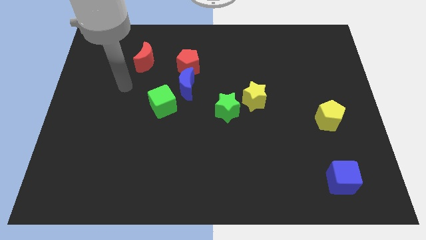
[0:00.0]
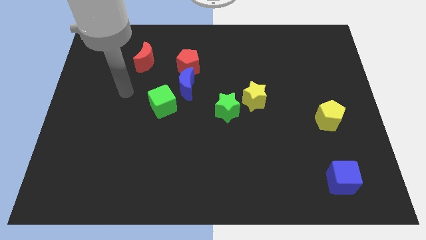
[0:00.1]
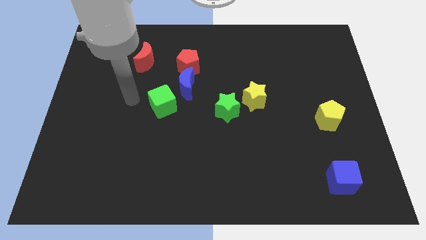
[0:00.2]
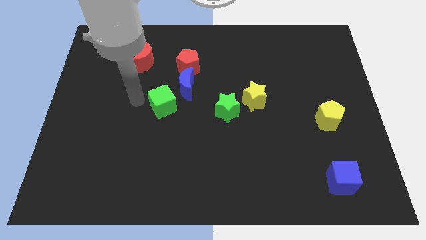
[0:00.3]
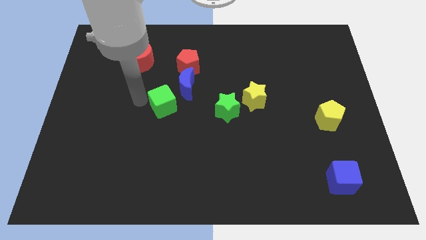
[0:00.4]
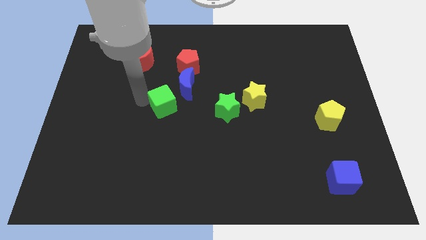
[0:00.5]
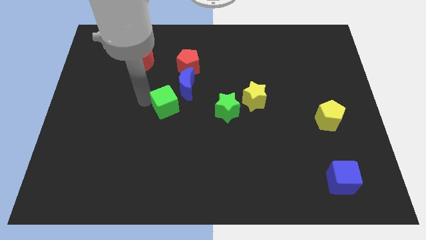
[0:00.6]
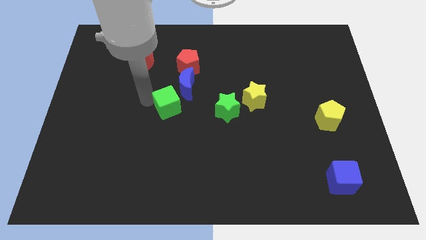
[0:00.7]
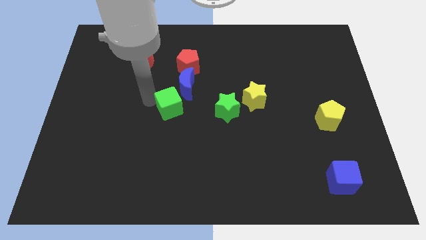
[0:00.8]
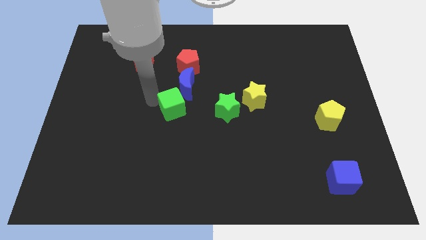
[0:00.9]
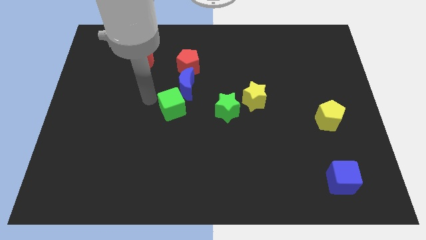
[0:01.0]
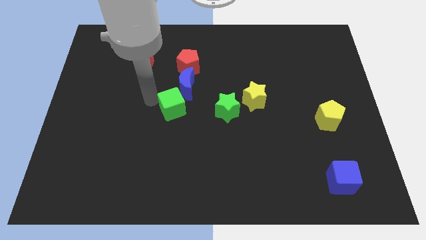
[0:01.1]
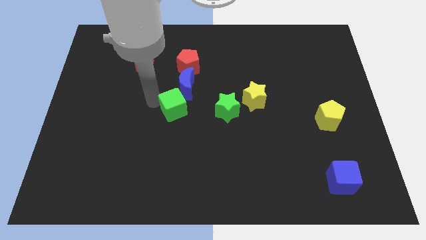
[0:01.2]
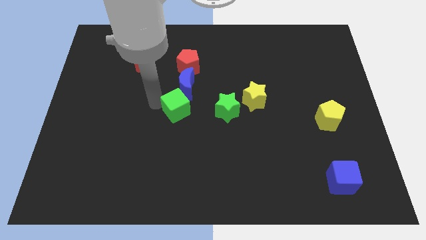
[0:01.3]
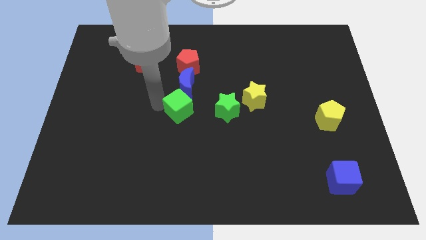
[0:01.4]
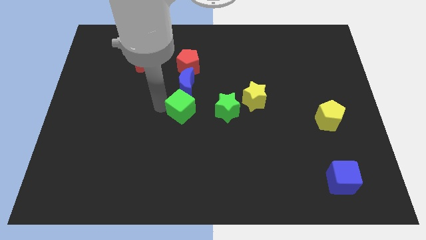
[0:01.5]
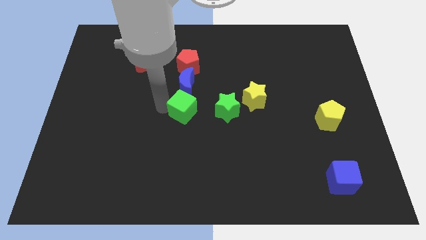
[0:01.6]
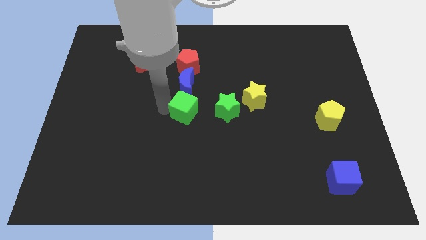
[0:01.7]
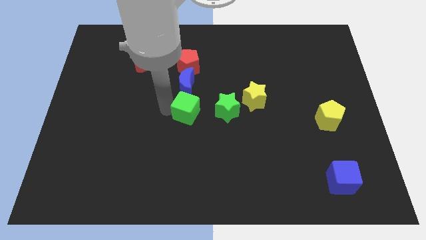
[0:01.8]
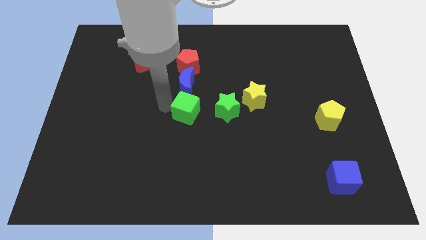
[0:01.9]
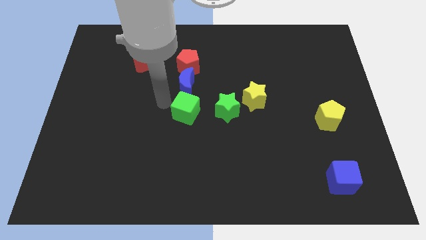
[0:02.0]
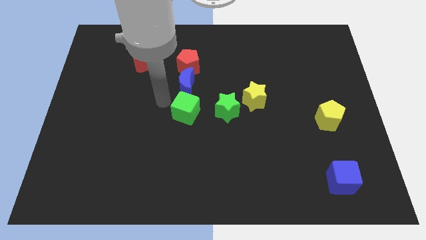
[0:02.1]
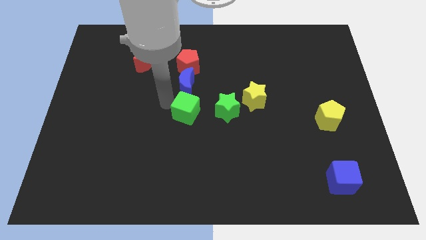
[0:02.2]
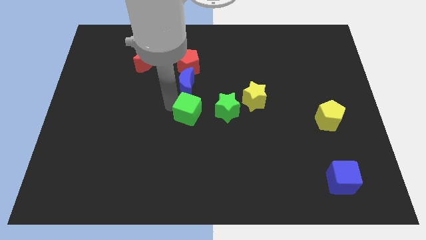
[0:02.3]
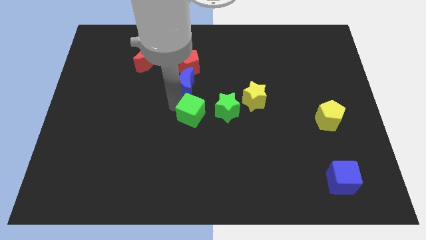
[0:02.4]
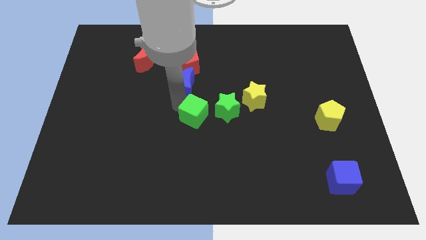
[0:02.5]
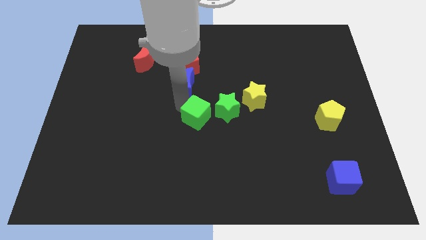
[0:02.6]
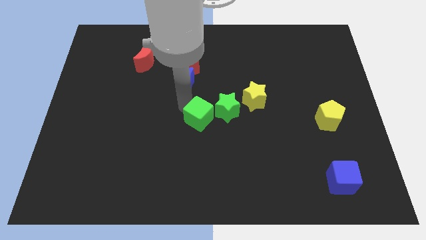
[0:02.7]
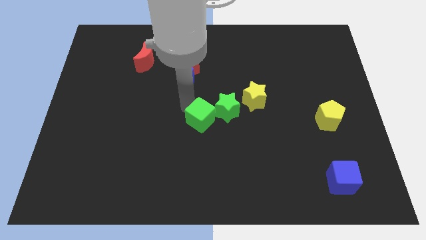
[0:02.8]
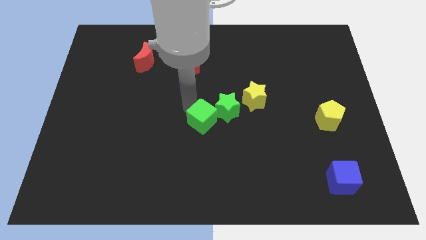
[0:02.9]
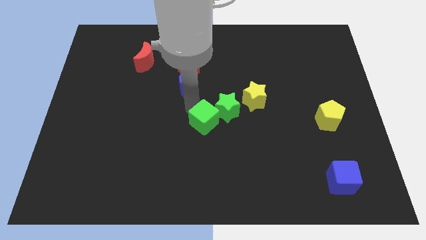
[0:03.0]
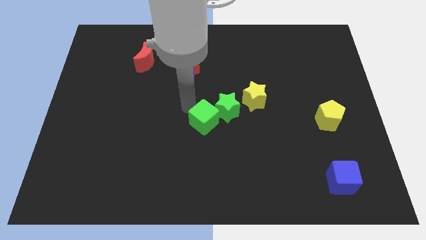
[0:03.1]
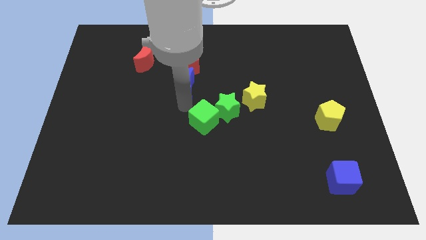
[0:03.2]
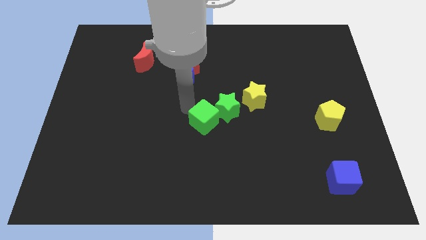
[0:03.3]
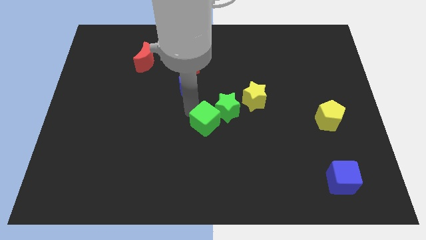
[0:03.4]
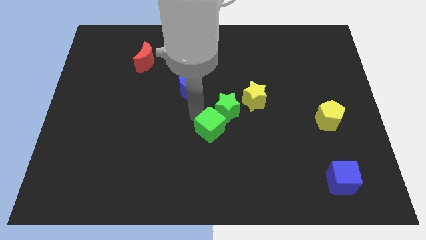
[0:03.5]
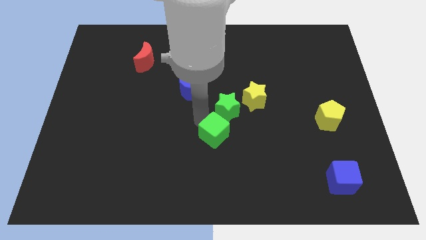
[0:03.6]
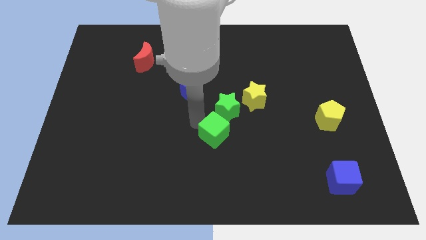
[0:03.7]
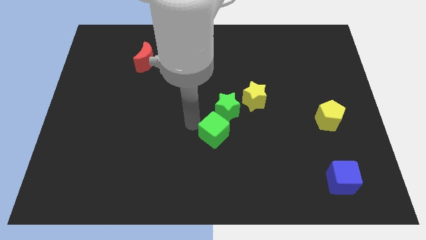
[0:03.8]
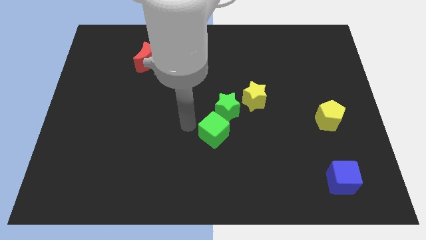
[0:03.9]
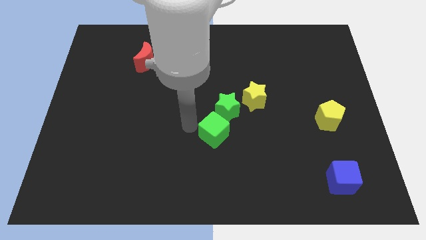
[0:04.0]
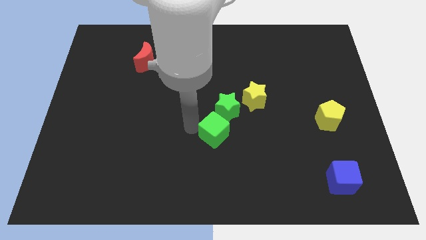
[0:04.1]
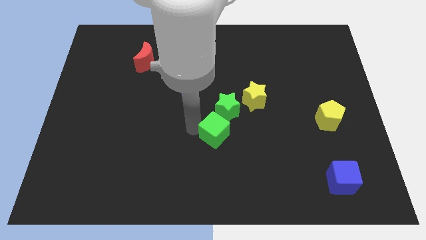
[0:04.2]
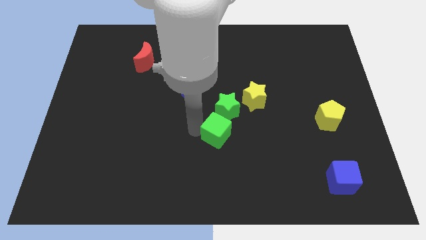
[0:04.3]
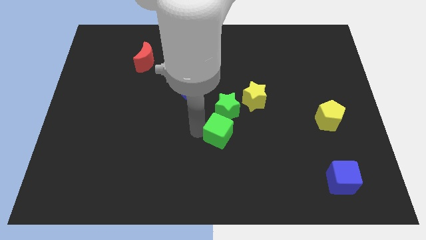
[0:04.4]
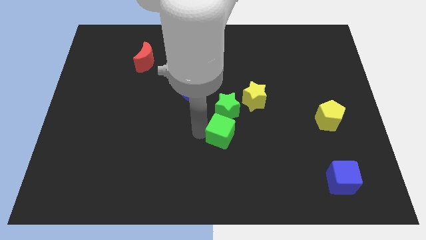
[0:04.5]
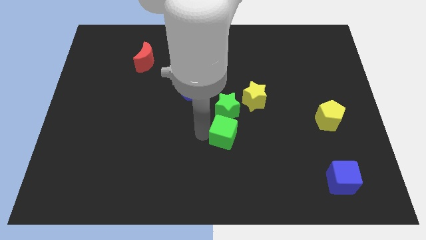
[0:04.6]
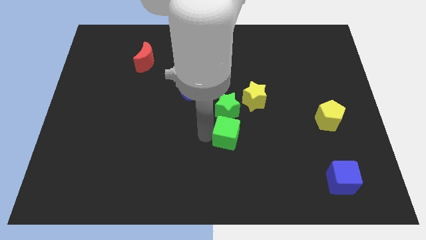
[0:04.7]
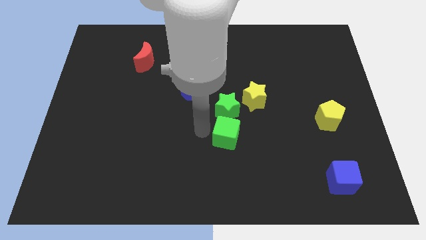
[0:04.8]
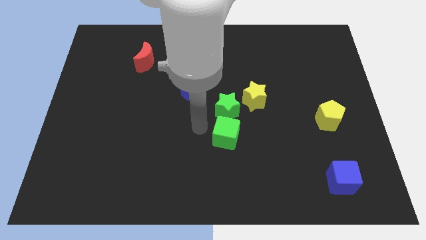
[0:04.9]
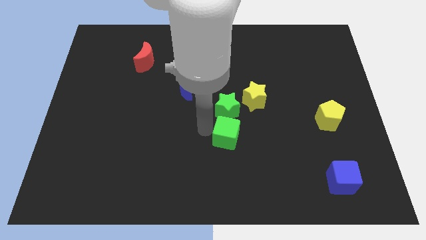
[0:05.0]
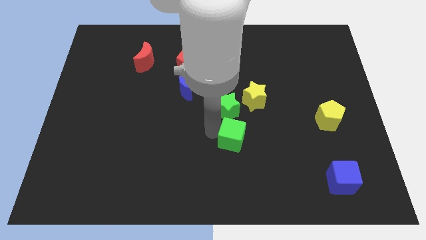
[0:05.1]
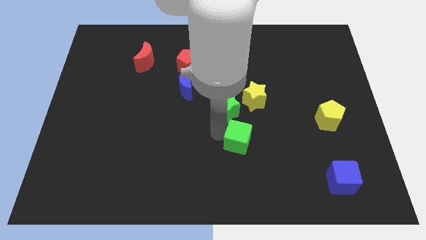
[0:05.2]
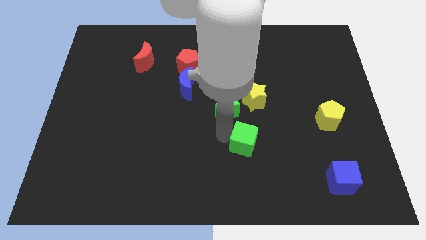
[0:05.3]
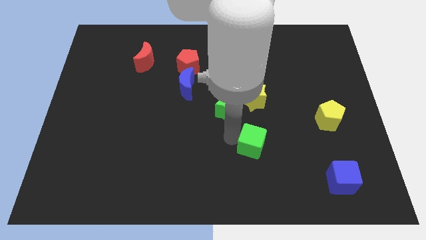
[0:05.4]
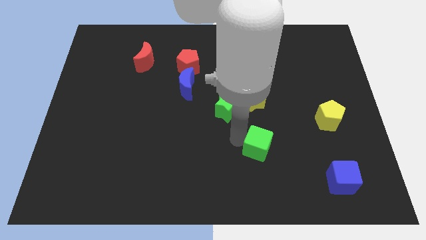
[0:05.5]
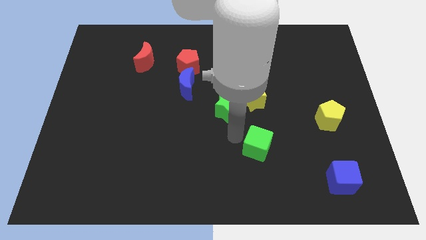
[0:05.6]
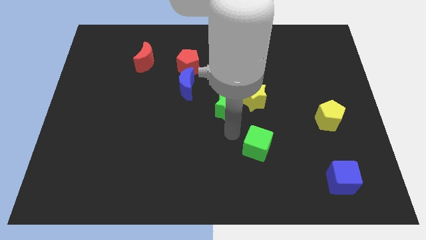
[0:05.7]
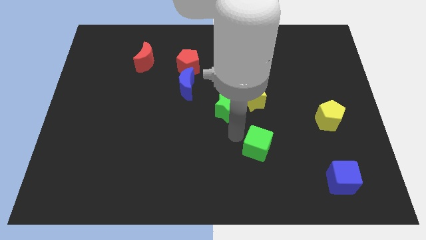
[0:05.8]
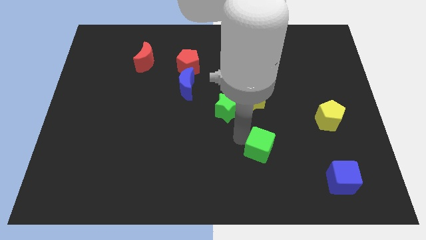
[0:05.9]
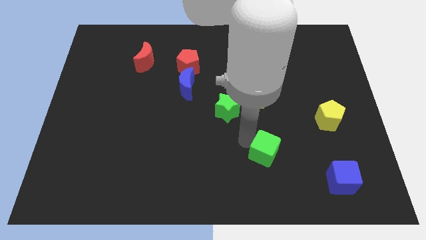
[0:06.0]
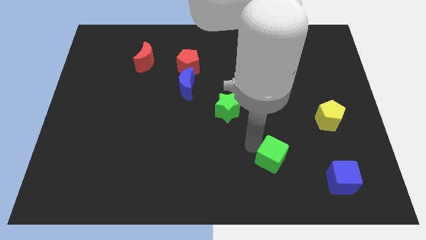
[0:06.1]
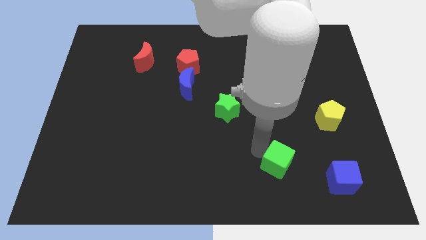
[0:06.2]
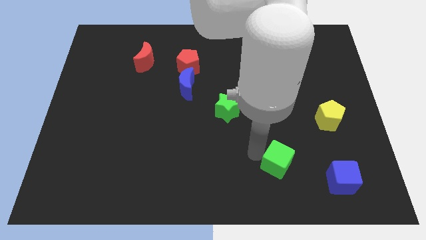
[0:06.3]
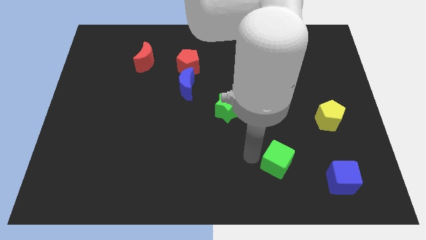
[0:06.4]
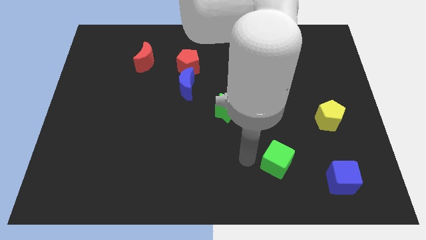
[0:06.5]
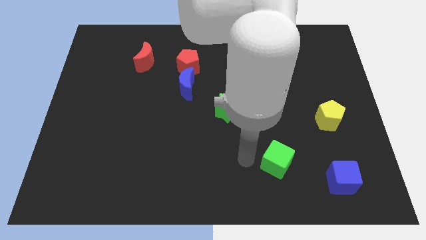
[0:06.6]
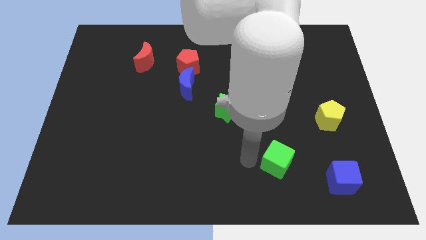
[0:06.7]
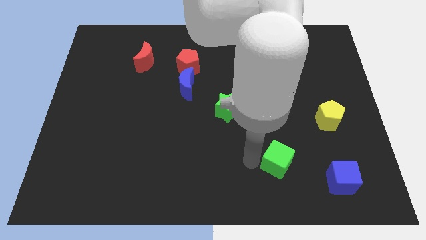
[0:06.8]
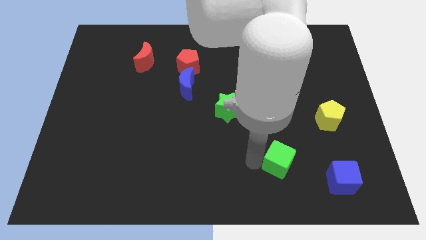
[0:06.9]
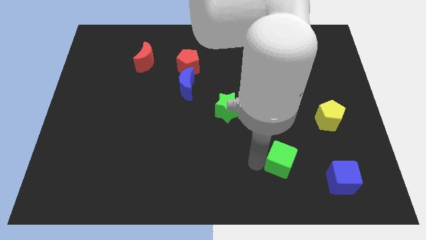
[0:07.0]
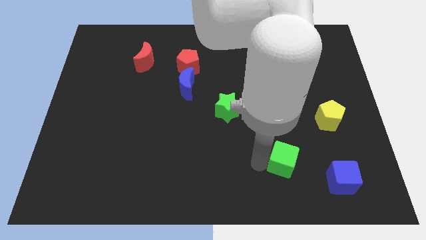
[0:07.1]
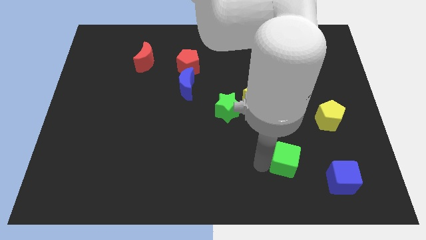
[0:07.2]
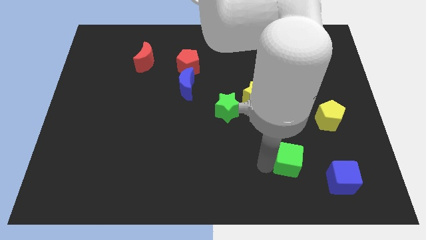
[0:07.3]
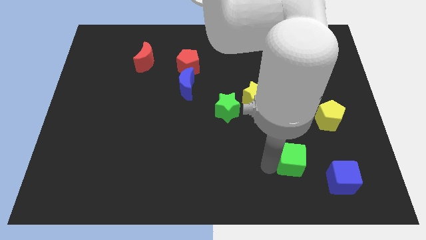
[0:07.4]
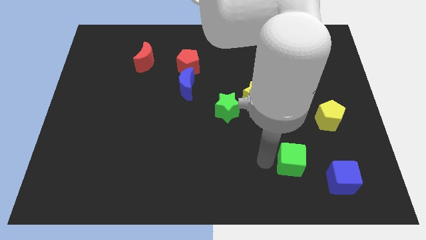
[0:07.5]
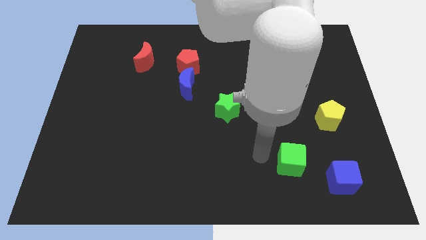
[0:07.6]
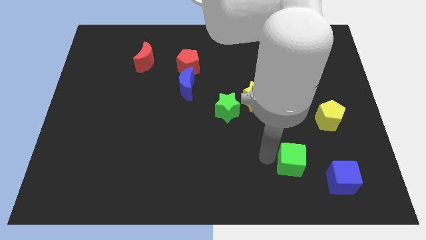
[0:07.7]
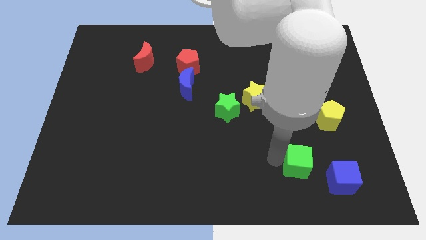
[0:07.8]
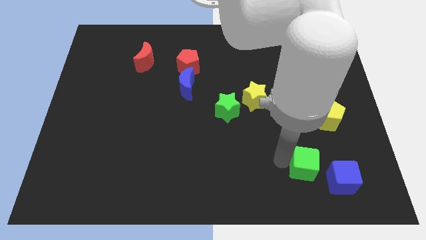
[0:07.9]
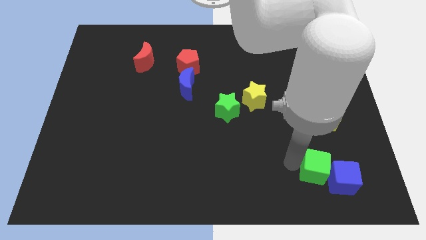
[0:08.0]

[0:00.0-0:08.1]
push the green cube next to the blue cube

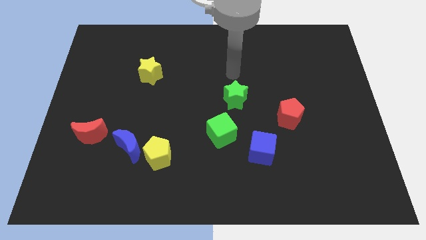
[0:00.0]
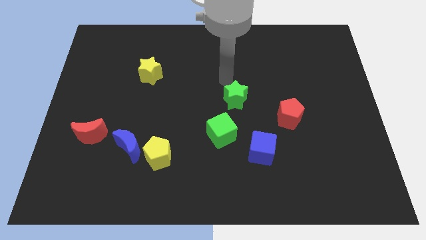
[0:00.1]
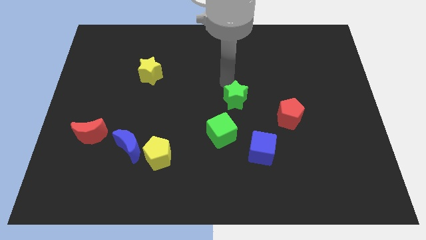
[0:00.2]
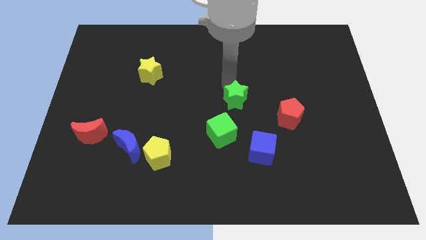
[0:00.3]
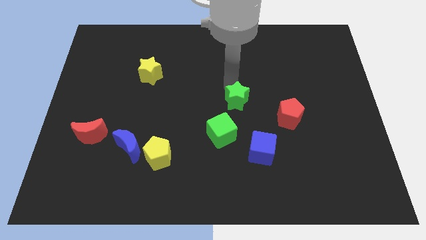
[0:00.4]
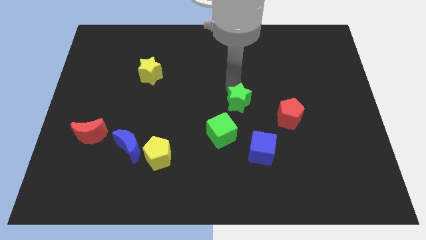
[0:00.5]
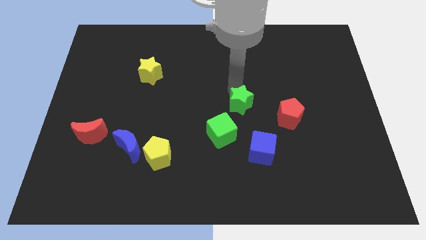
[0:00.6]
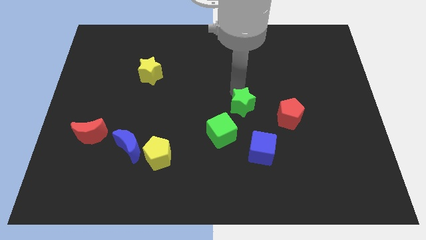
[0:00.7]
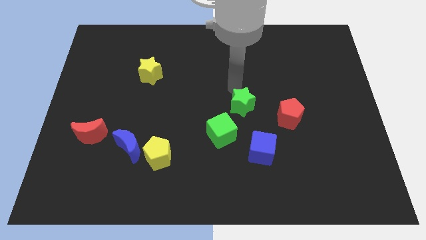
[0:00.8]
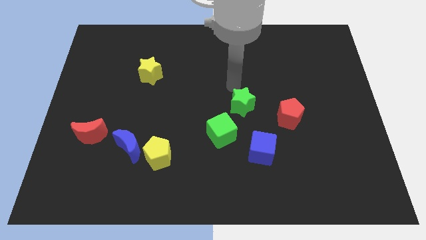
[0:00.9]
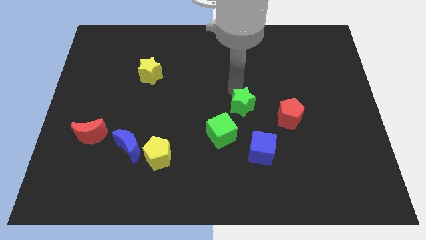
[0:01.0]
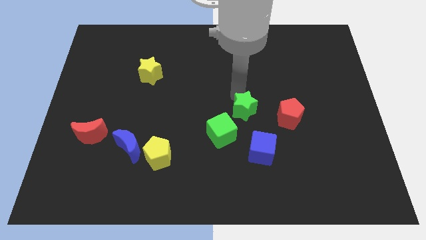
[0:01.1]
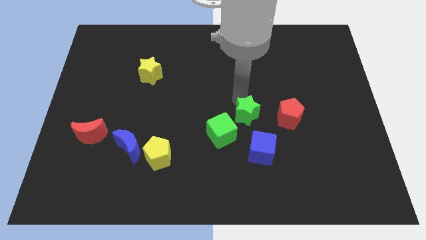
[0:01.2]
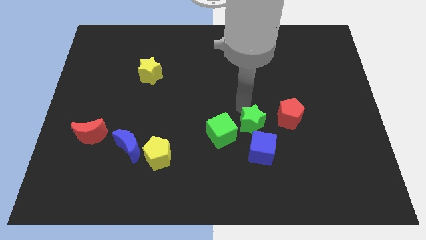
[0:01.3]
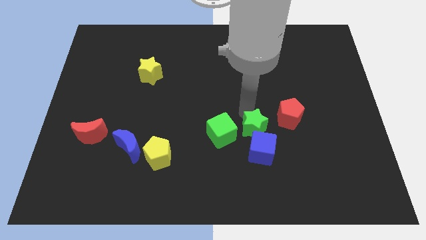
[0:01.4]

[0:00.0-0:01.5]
move the green star close to the blue cube
